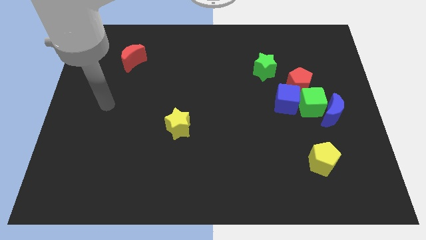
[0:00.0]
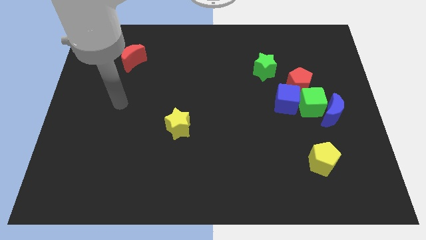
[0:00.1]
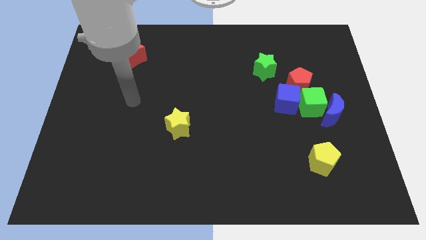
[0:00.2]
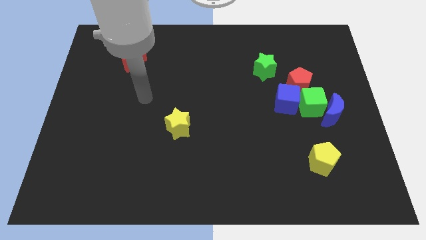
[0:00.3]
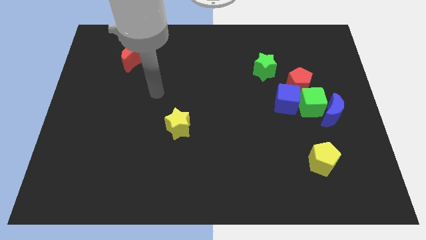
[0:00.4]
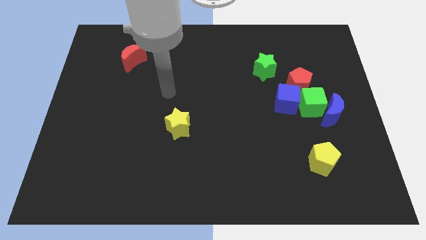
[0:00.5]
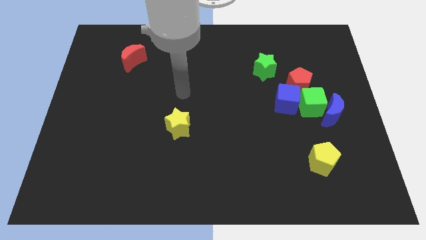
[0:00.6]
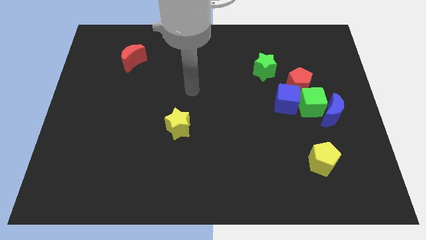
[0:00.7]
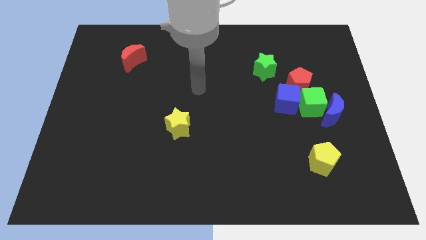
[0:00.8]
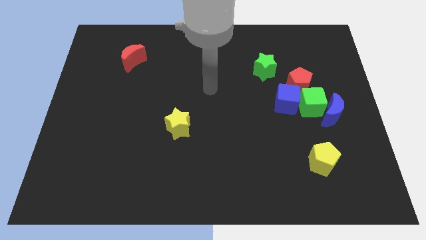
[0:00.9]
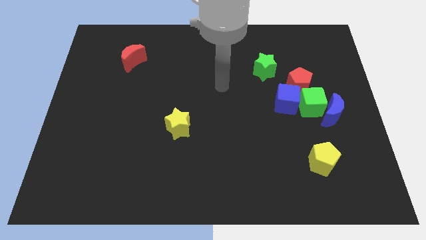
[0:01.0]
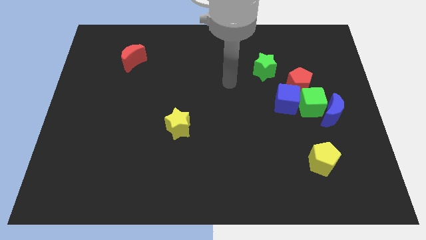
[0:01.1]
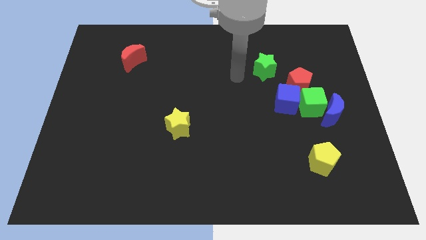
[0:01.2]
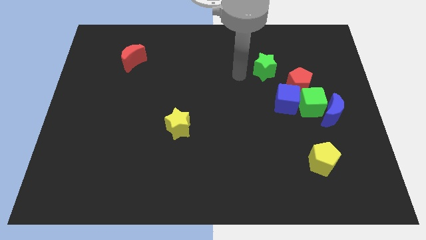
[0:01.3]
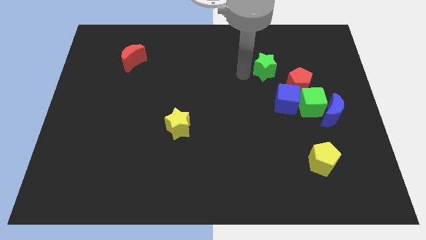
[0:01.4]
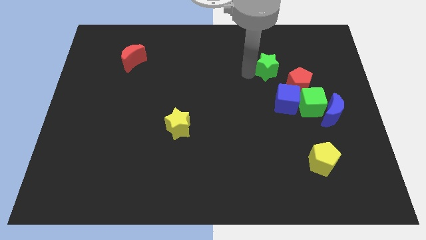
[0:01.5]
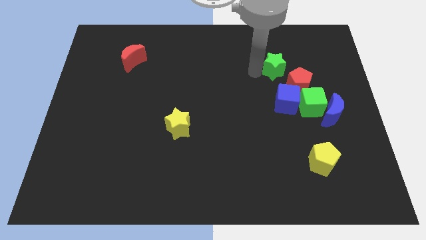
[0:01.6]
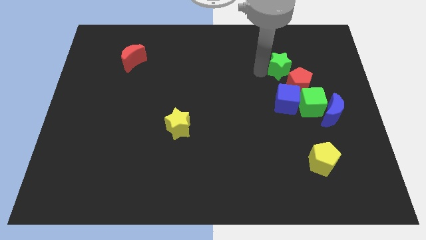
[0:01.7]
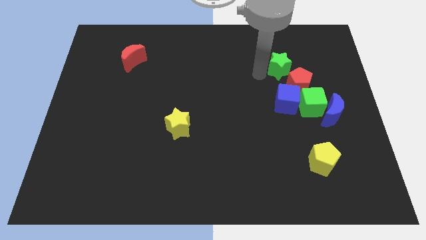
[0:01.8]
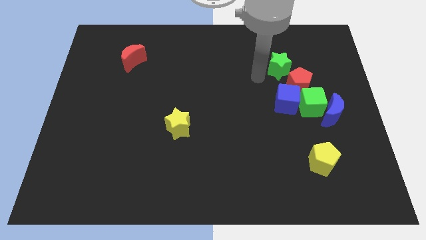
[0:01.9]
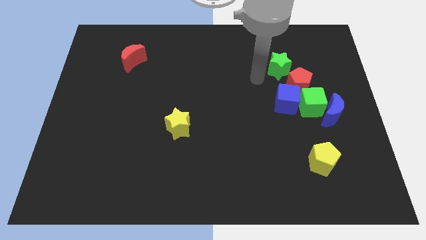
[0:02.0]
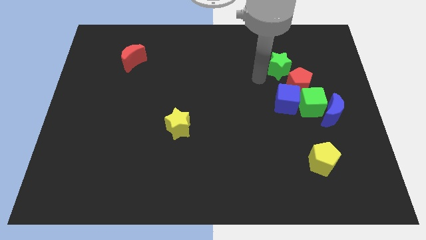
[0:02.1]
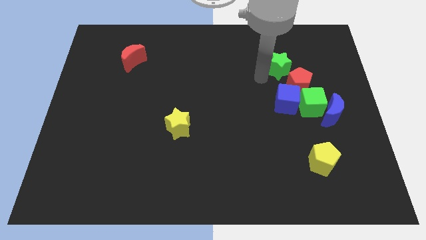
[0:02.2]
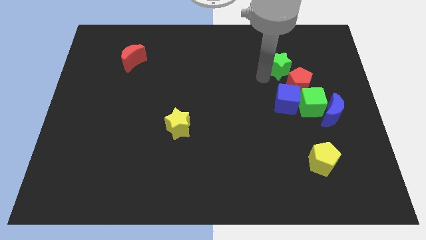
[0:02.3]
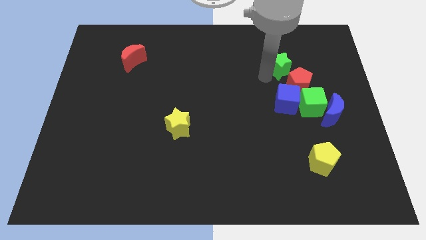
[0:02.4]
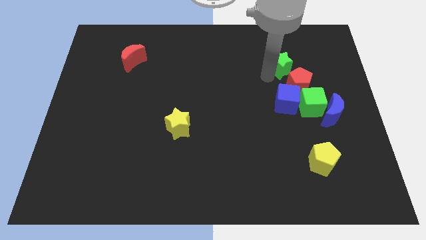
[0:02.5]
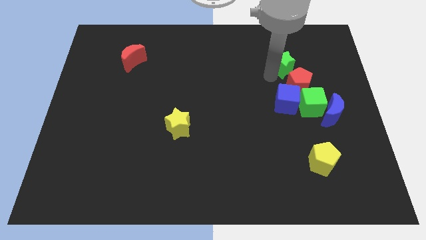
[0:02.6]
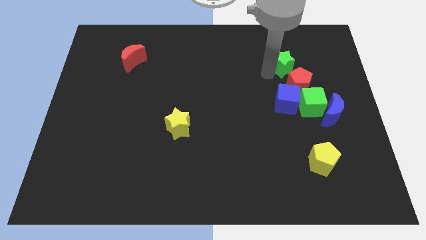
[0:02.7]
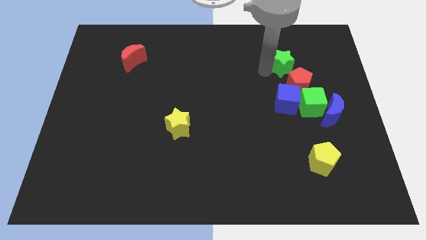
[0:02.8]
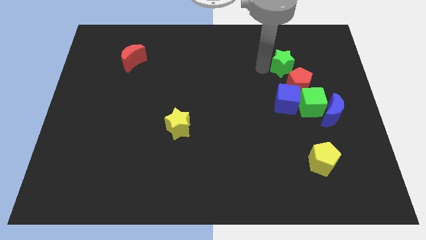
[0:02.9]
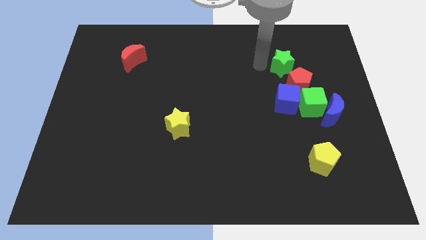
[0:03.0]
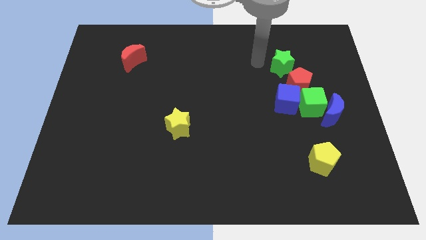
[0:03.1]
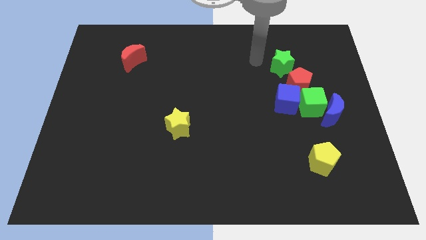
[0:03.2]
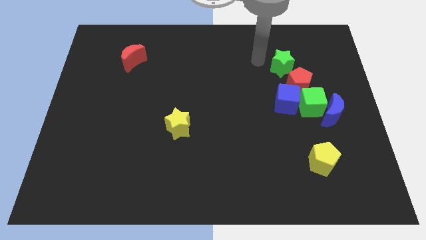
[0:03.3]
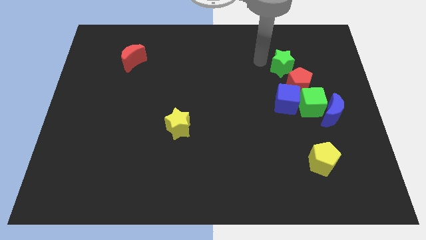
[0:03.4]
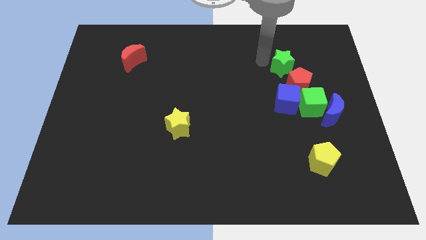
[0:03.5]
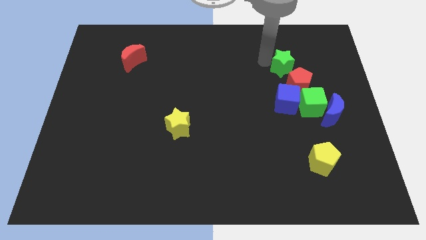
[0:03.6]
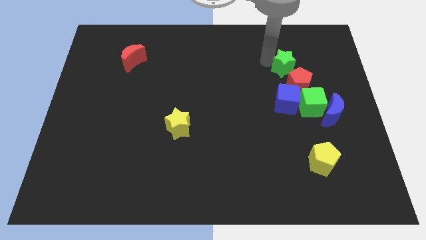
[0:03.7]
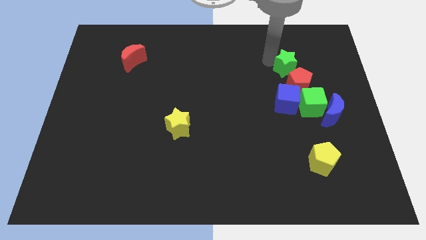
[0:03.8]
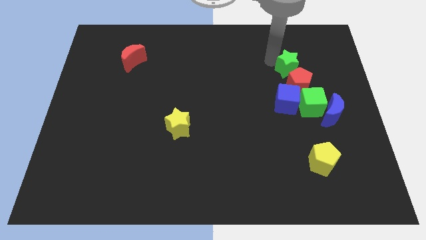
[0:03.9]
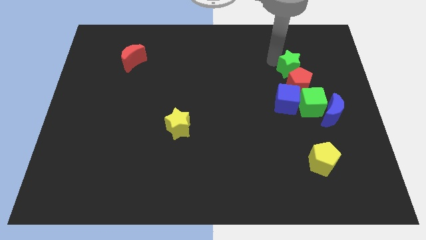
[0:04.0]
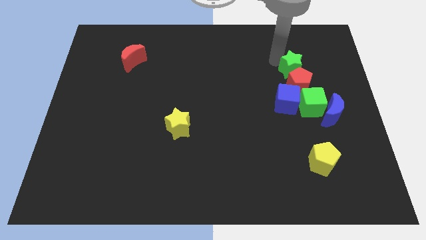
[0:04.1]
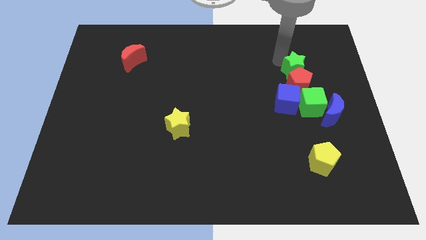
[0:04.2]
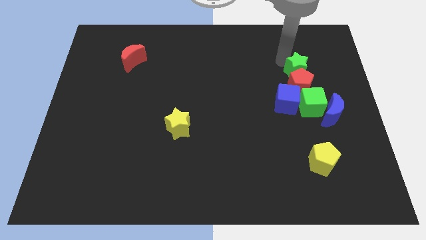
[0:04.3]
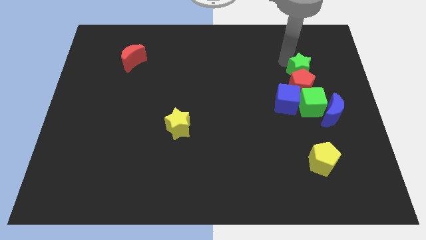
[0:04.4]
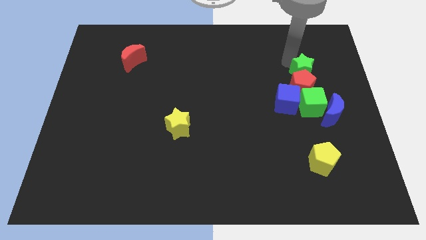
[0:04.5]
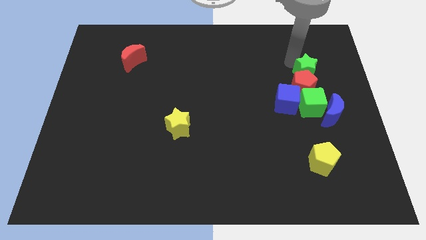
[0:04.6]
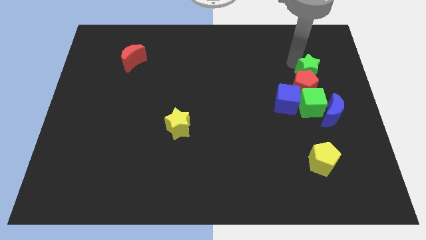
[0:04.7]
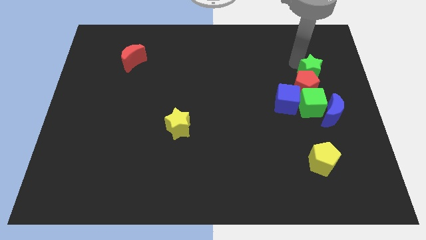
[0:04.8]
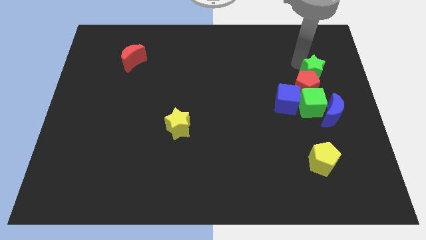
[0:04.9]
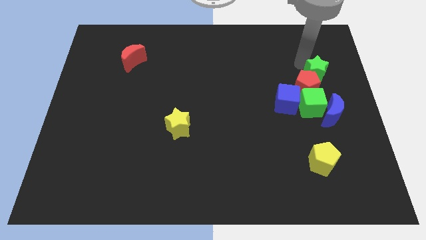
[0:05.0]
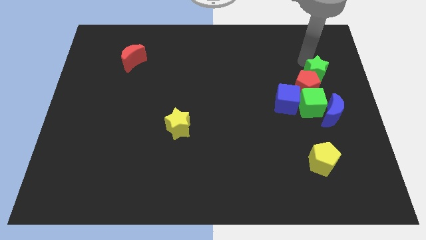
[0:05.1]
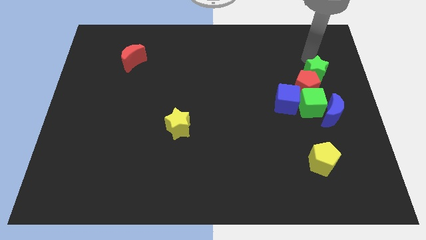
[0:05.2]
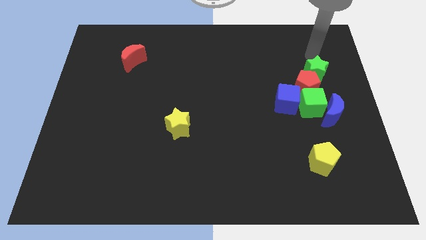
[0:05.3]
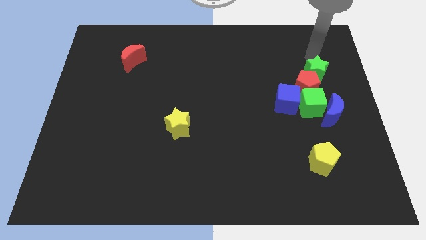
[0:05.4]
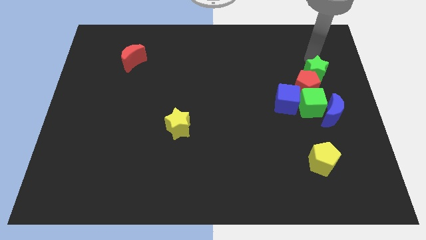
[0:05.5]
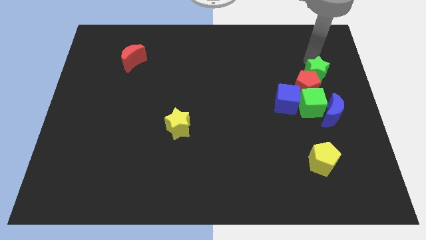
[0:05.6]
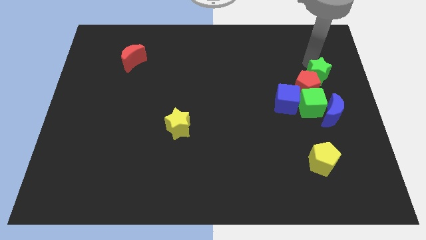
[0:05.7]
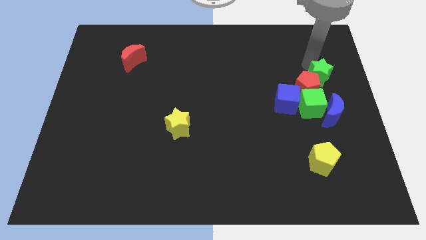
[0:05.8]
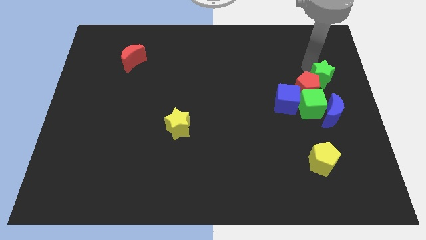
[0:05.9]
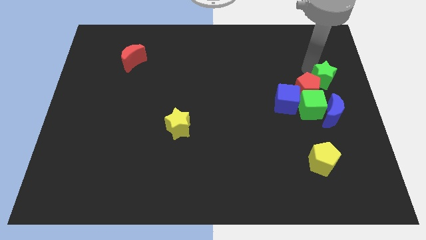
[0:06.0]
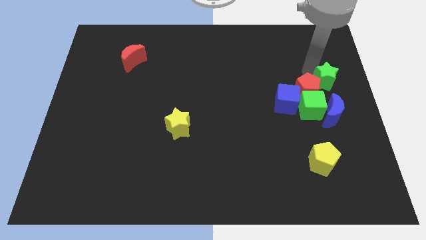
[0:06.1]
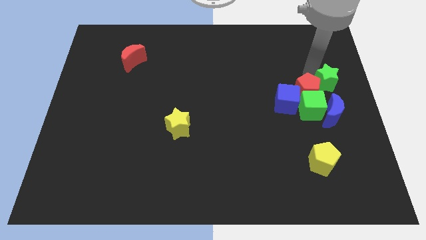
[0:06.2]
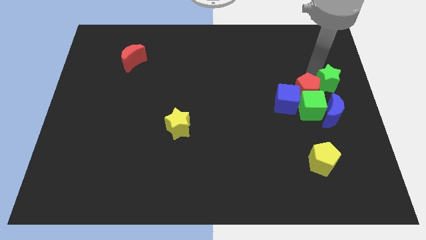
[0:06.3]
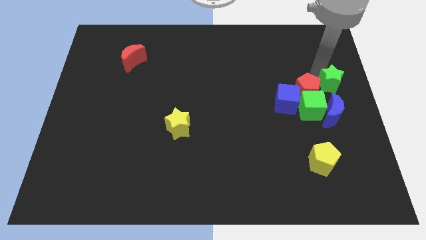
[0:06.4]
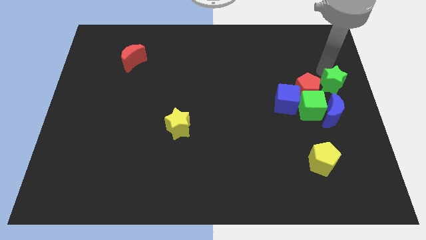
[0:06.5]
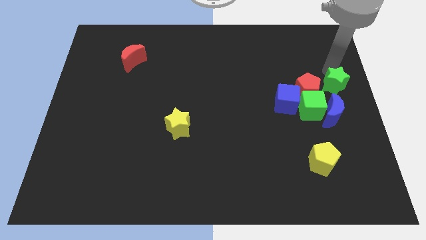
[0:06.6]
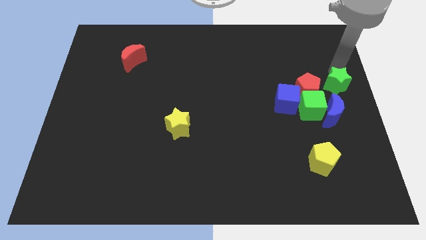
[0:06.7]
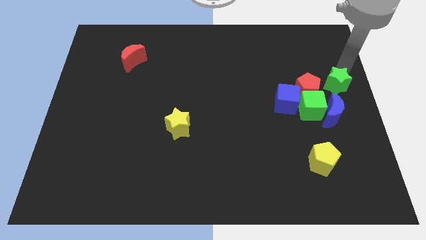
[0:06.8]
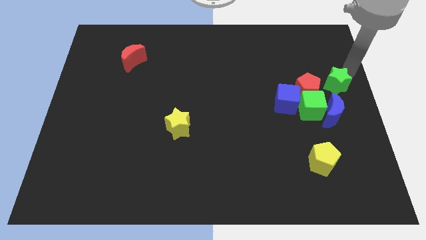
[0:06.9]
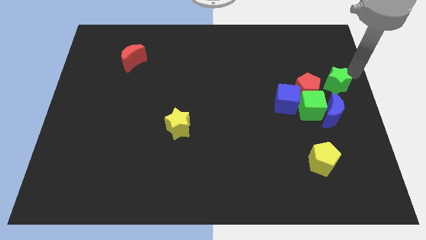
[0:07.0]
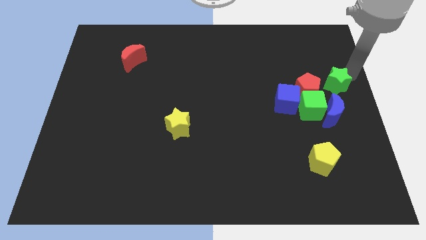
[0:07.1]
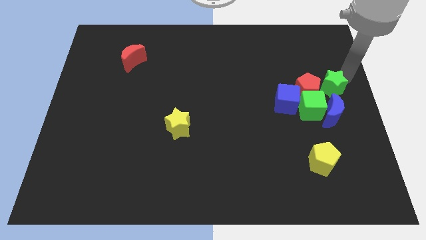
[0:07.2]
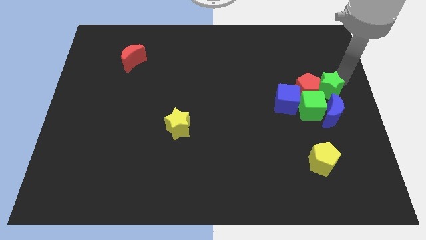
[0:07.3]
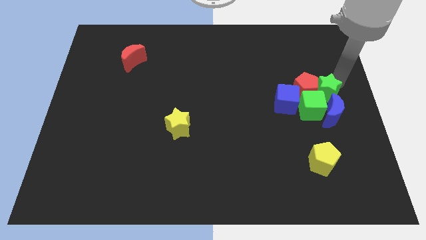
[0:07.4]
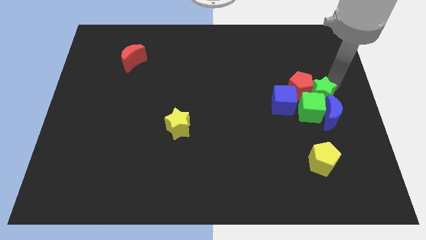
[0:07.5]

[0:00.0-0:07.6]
move the green star close to the green cube
